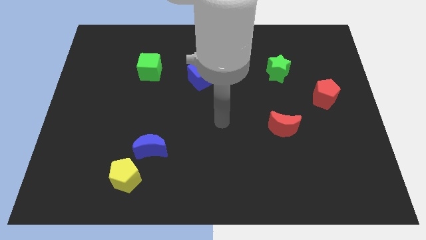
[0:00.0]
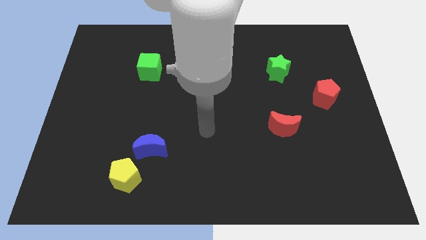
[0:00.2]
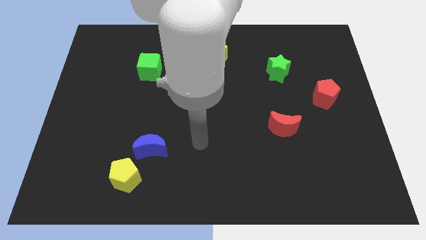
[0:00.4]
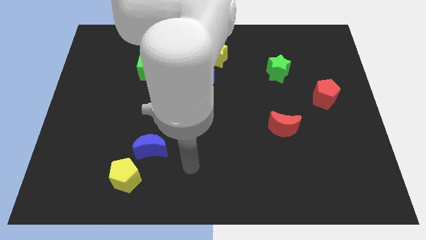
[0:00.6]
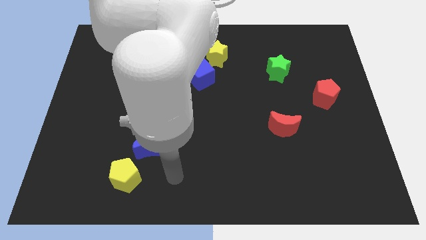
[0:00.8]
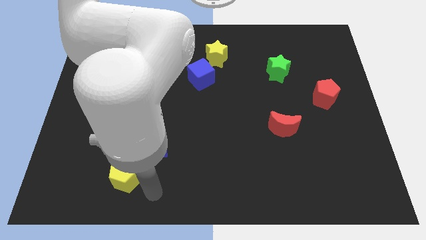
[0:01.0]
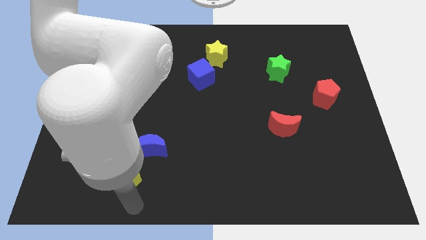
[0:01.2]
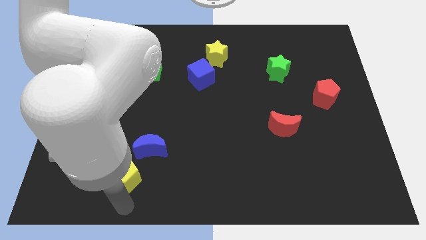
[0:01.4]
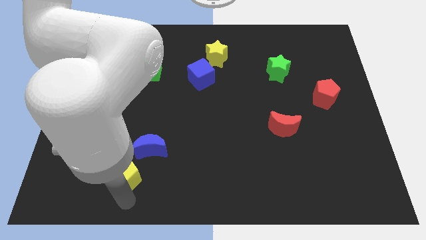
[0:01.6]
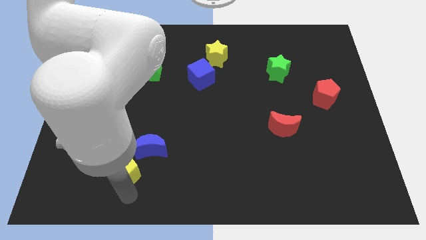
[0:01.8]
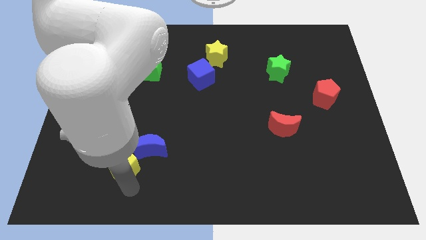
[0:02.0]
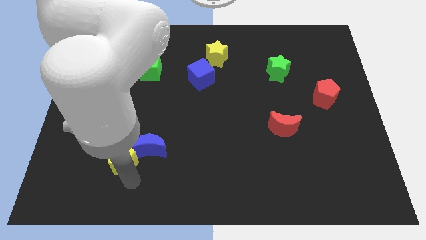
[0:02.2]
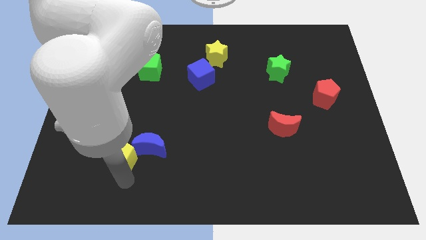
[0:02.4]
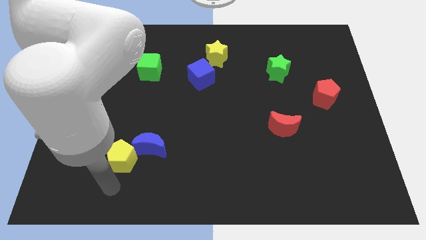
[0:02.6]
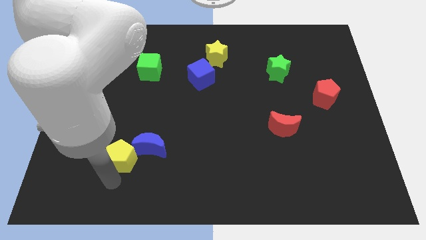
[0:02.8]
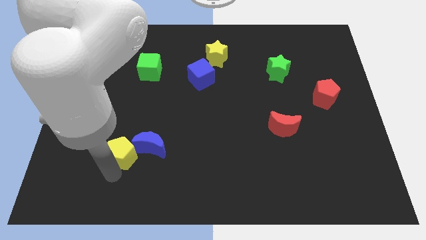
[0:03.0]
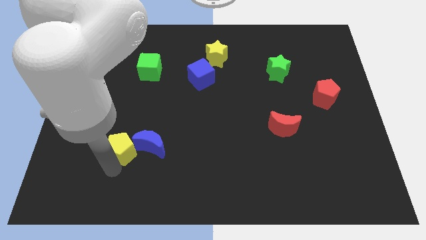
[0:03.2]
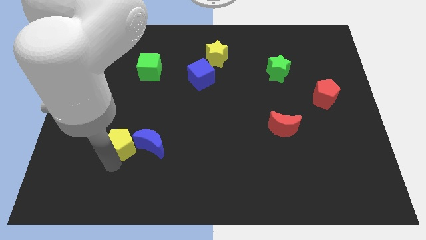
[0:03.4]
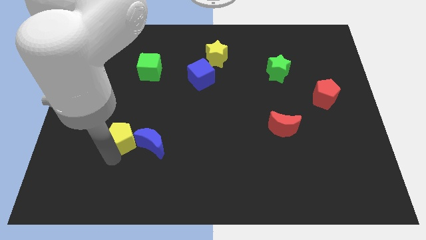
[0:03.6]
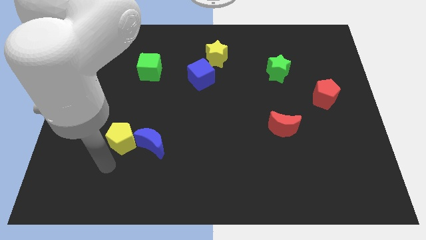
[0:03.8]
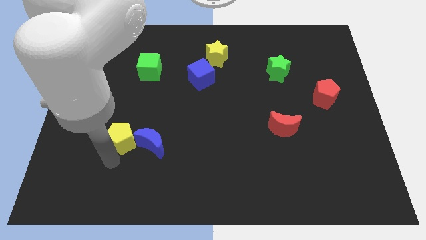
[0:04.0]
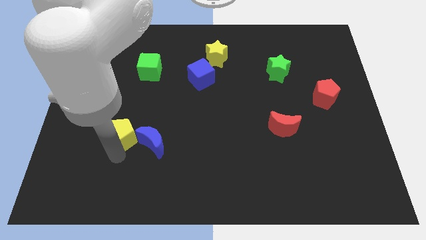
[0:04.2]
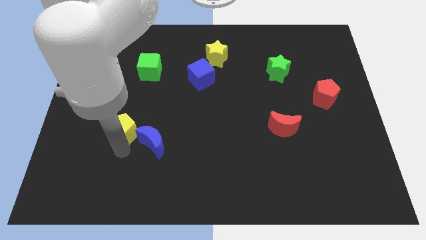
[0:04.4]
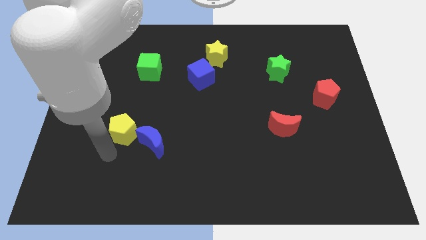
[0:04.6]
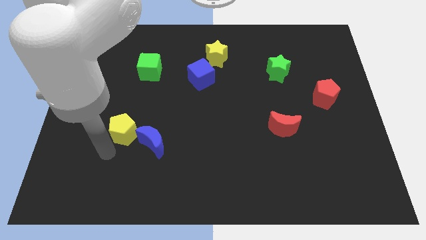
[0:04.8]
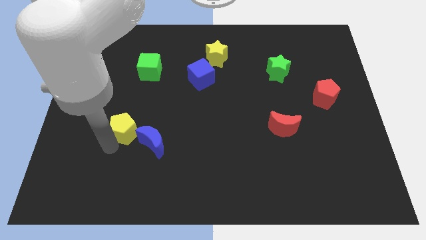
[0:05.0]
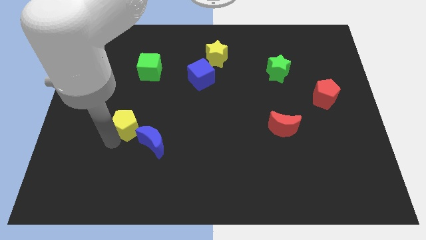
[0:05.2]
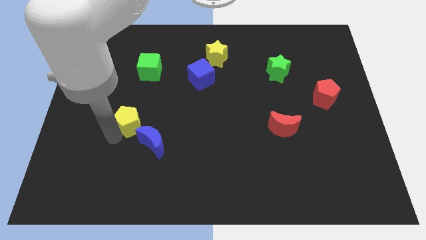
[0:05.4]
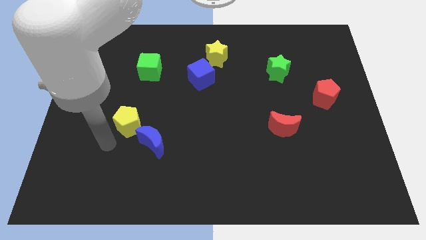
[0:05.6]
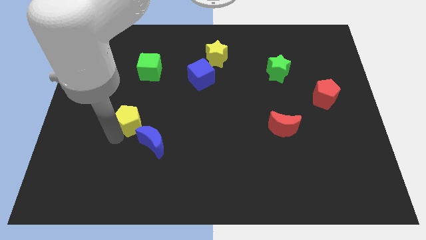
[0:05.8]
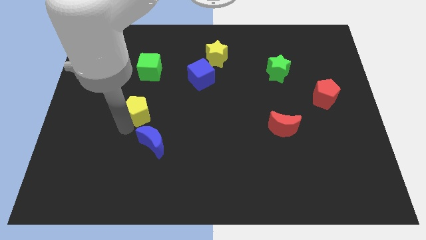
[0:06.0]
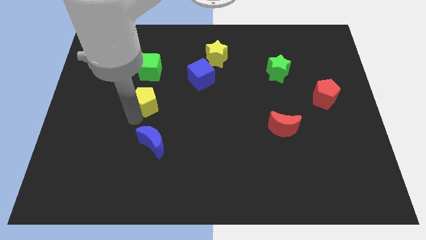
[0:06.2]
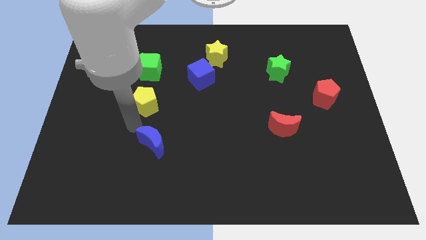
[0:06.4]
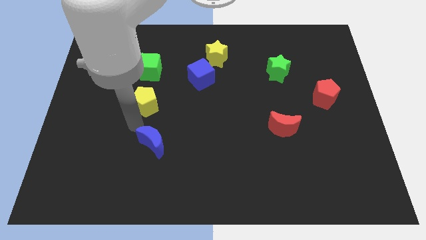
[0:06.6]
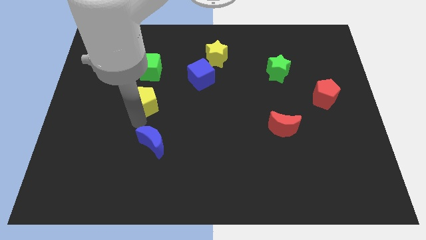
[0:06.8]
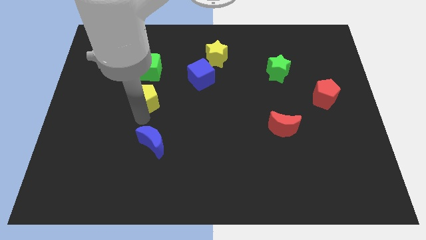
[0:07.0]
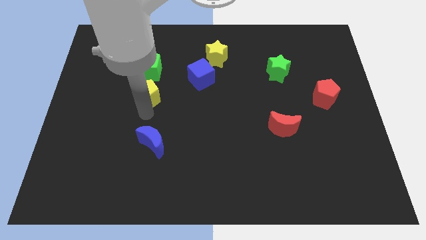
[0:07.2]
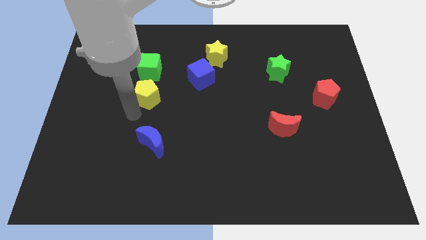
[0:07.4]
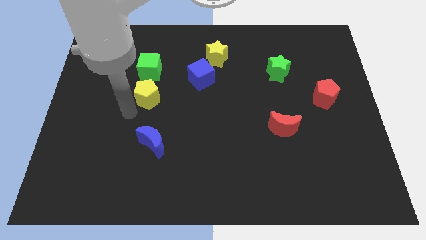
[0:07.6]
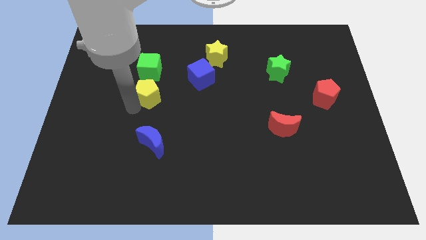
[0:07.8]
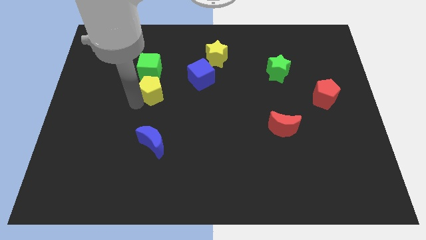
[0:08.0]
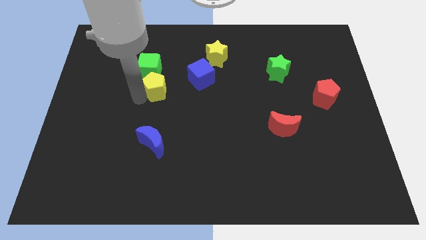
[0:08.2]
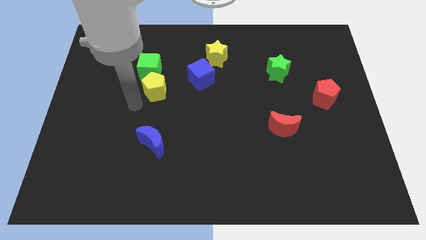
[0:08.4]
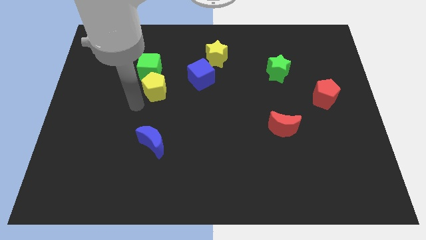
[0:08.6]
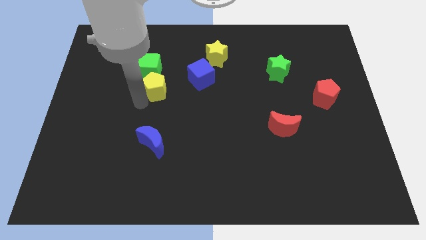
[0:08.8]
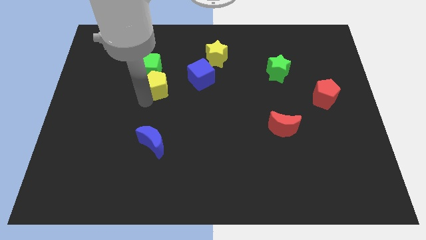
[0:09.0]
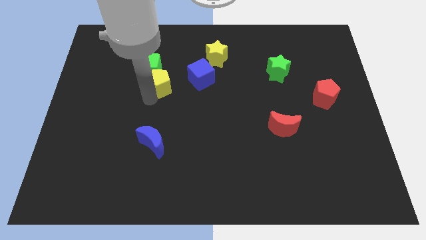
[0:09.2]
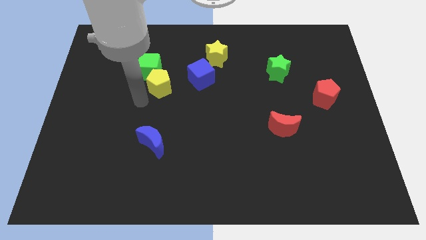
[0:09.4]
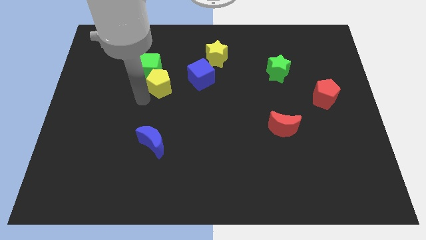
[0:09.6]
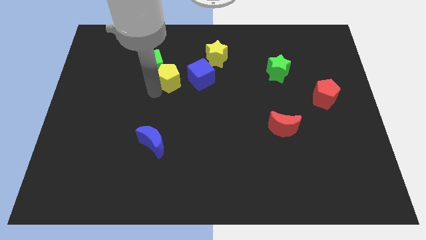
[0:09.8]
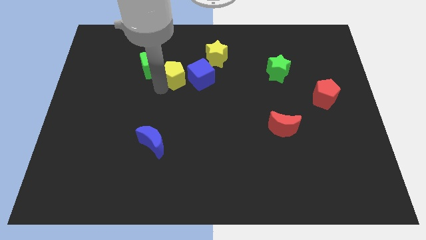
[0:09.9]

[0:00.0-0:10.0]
put the yellow pentagon diagonally up and to the left of the blue cube

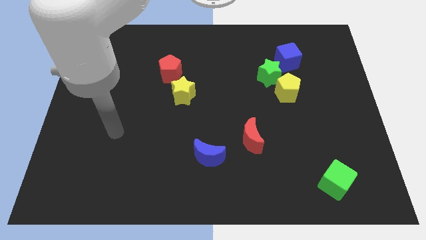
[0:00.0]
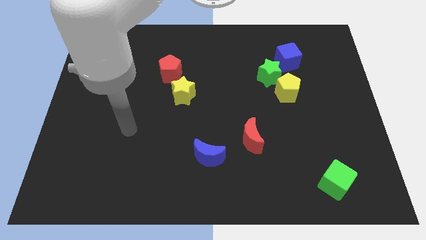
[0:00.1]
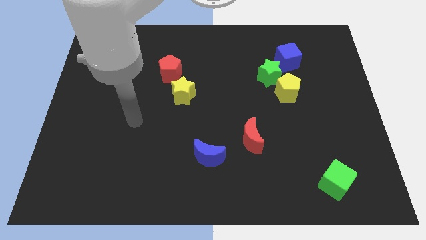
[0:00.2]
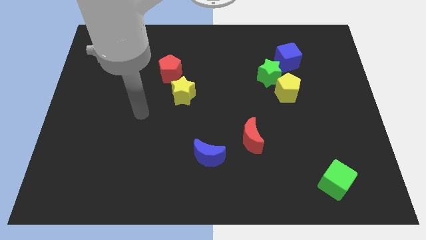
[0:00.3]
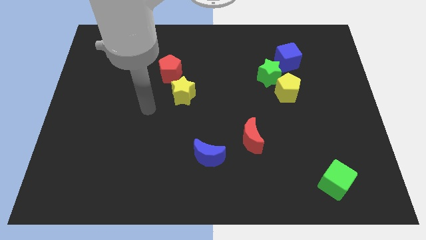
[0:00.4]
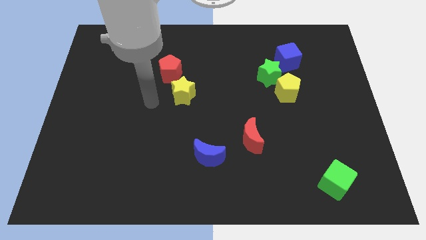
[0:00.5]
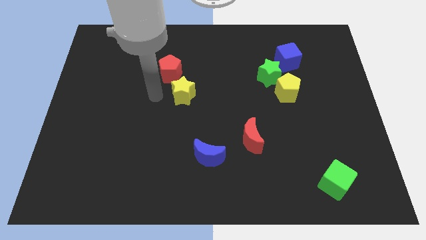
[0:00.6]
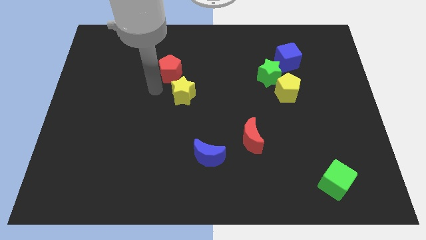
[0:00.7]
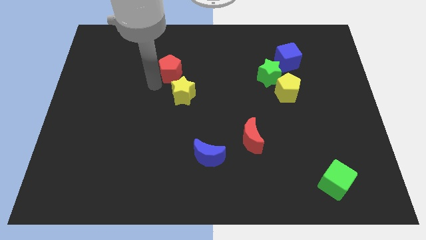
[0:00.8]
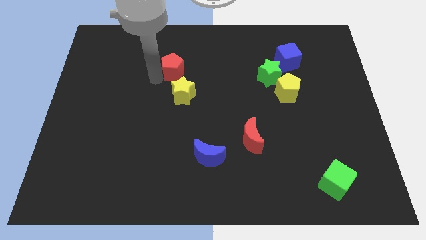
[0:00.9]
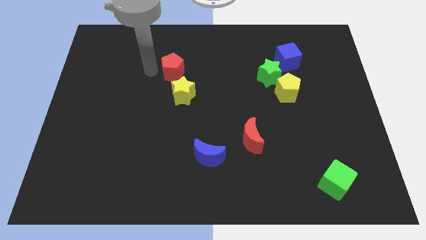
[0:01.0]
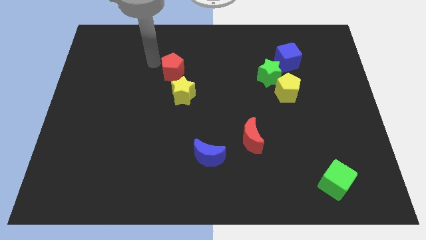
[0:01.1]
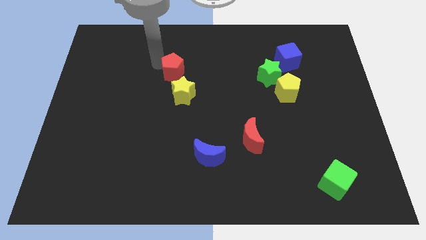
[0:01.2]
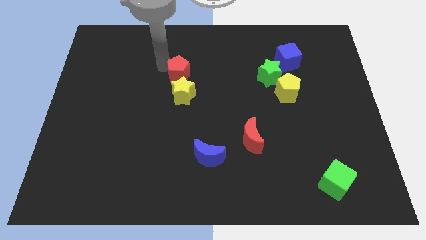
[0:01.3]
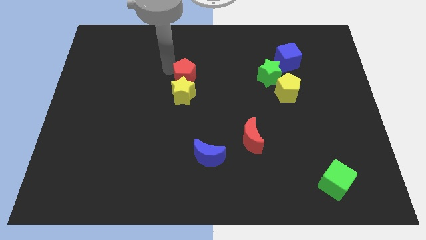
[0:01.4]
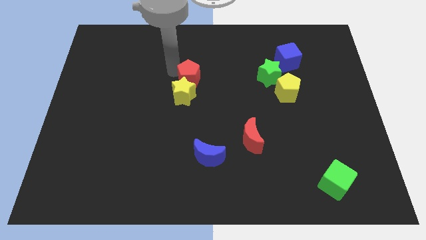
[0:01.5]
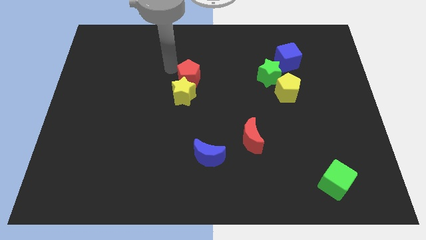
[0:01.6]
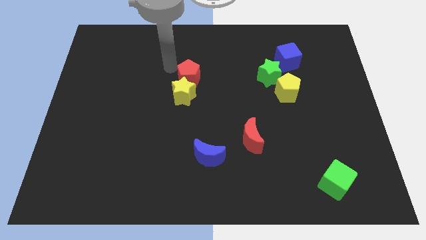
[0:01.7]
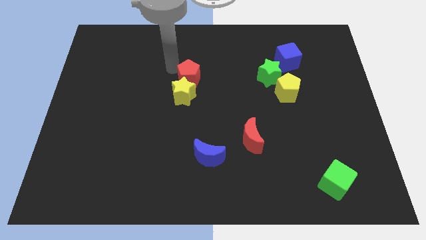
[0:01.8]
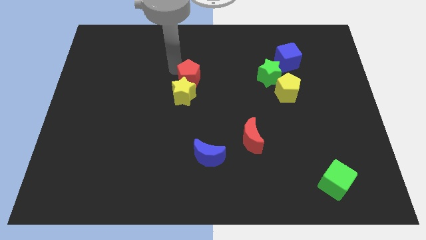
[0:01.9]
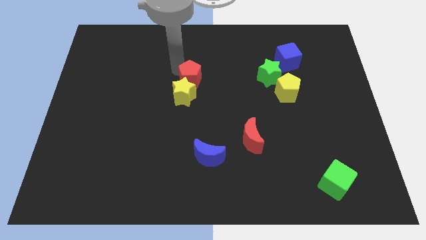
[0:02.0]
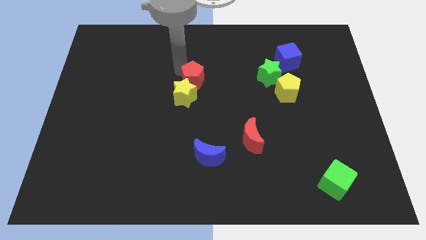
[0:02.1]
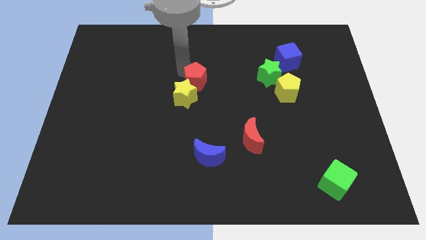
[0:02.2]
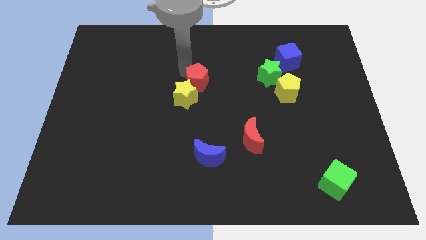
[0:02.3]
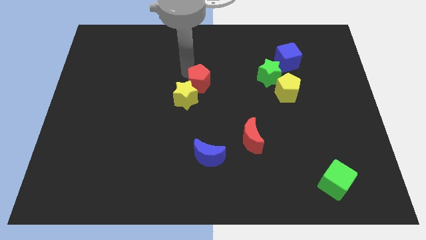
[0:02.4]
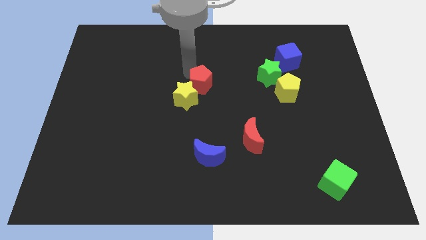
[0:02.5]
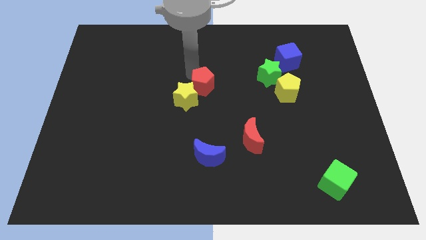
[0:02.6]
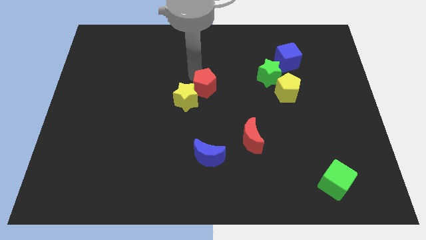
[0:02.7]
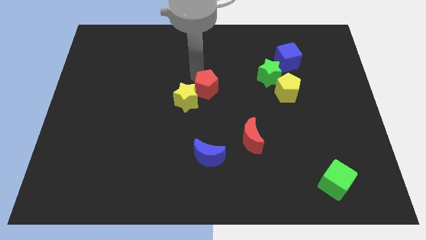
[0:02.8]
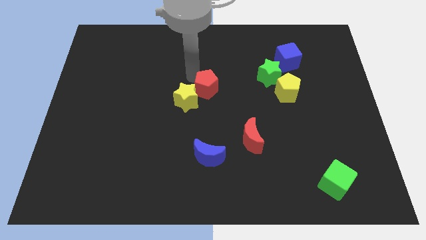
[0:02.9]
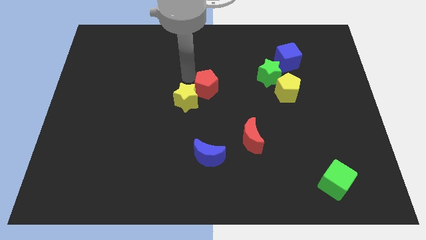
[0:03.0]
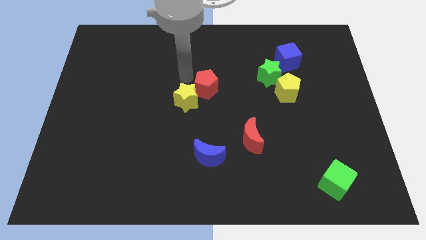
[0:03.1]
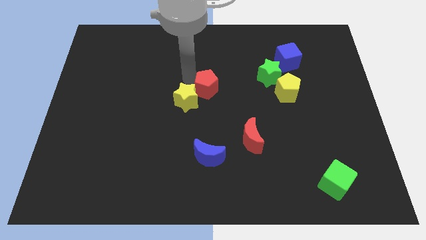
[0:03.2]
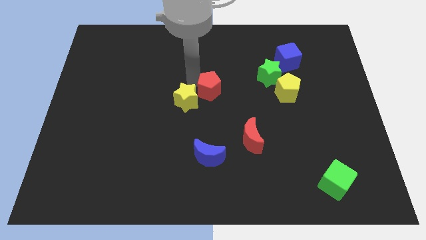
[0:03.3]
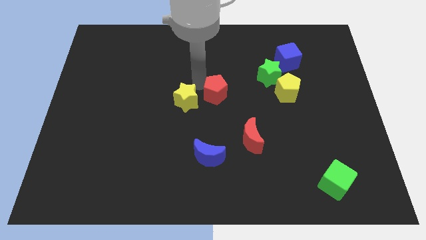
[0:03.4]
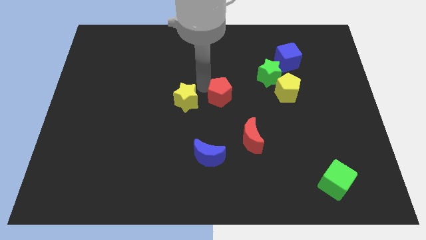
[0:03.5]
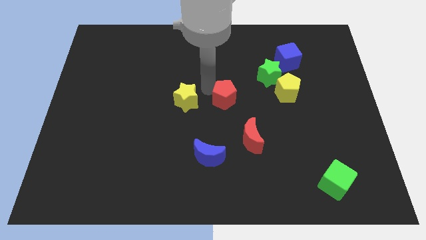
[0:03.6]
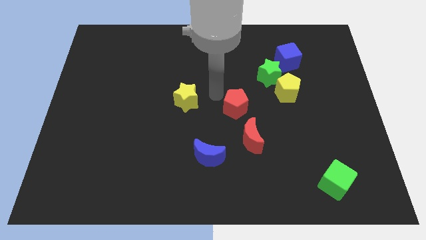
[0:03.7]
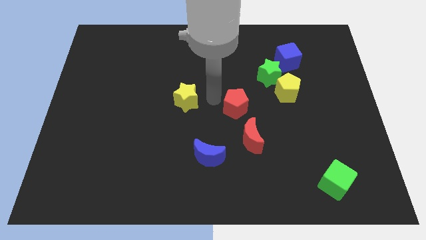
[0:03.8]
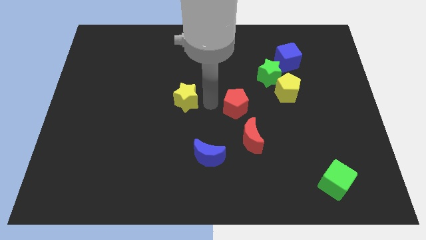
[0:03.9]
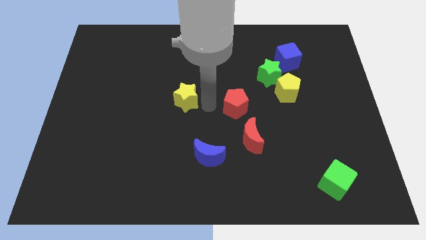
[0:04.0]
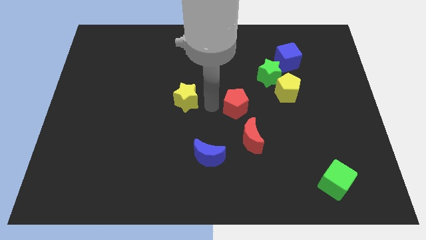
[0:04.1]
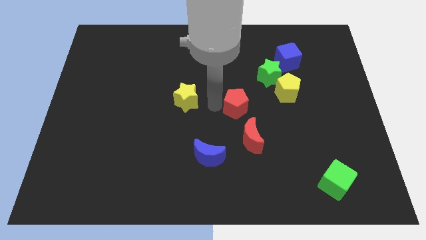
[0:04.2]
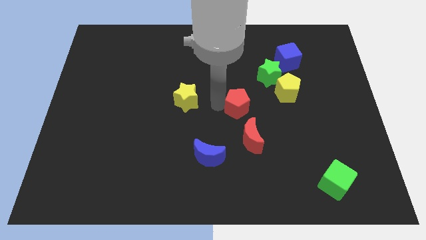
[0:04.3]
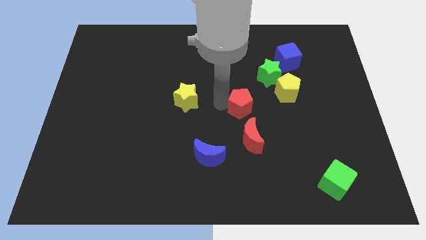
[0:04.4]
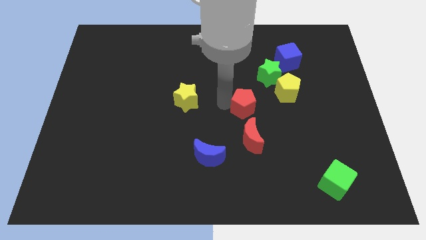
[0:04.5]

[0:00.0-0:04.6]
put the red pentagon to the bottom left of the yellow pentagon
